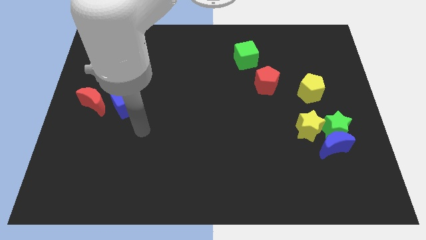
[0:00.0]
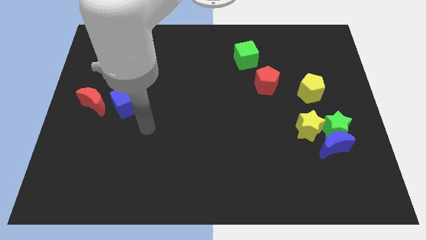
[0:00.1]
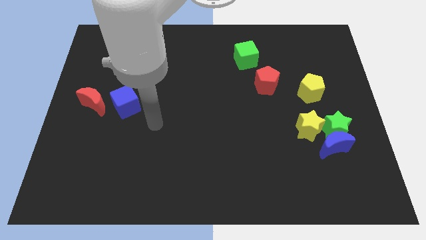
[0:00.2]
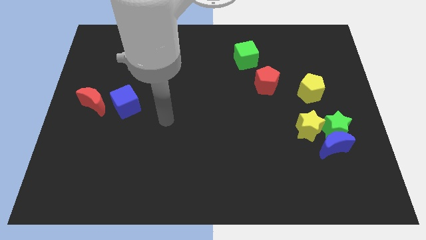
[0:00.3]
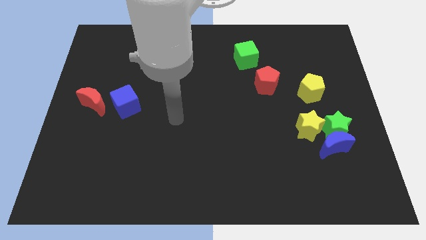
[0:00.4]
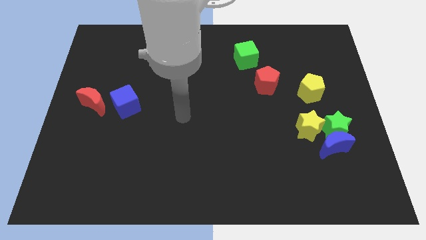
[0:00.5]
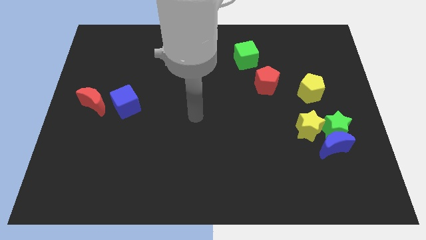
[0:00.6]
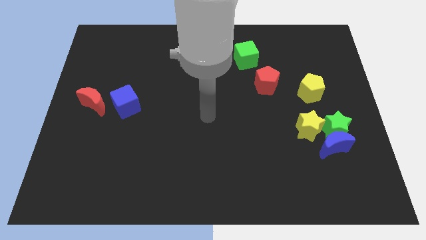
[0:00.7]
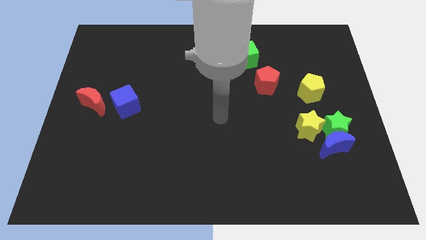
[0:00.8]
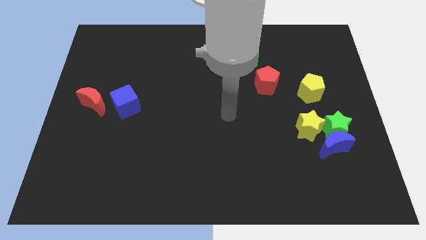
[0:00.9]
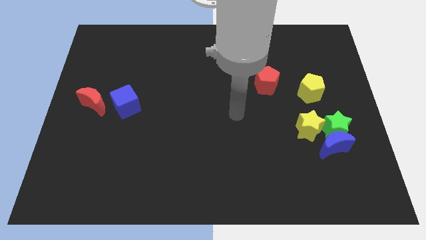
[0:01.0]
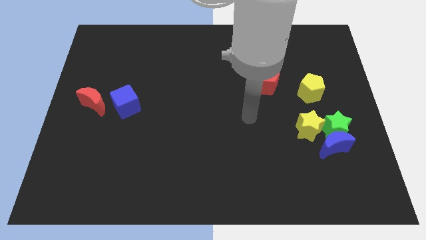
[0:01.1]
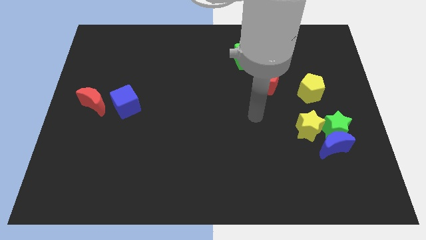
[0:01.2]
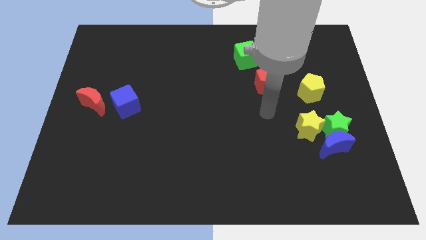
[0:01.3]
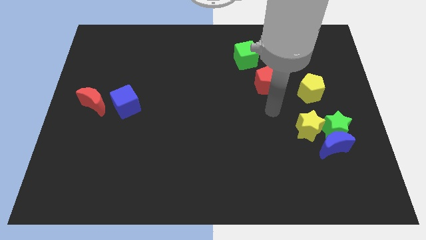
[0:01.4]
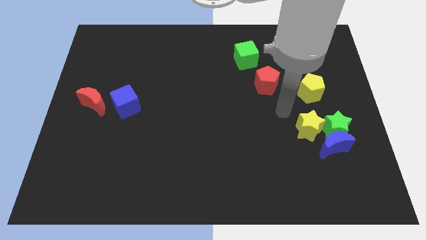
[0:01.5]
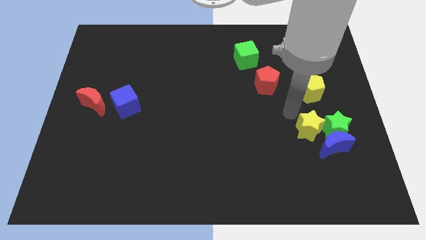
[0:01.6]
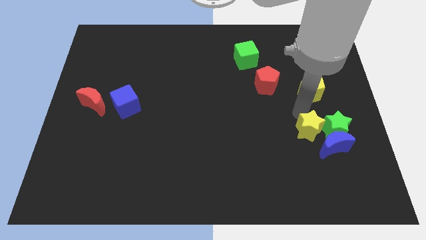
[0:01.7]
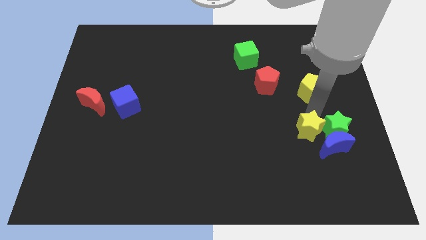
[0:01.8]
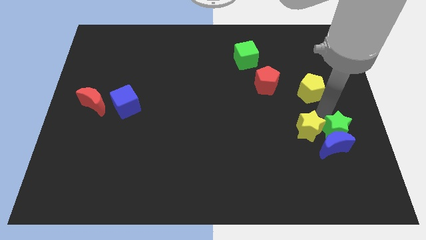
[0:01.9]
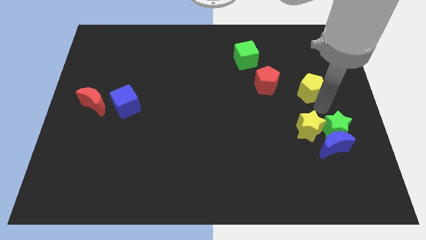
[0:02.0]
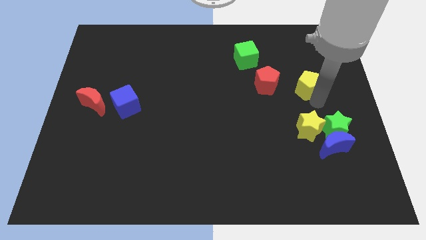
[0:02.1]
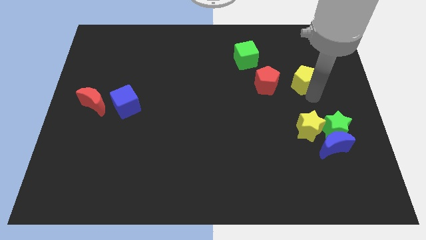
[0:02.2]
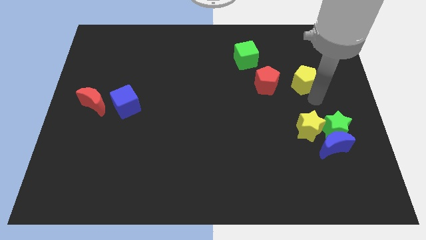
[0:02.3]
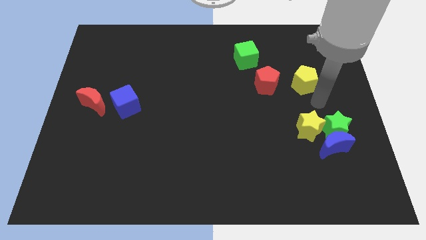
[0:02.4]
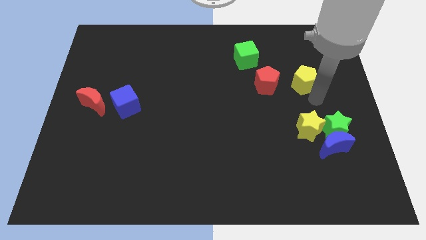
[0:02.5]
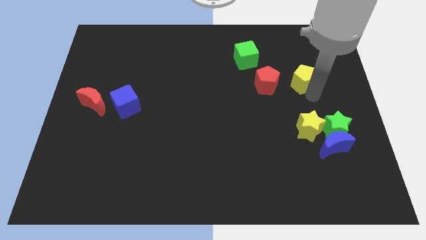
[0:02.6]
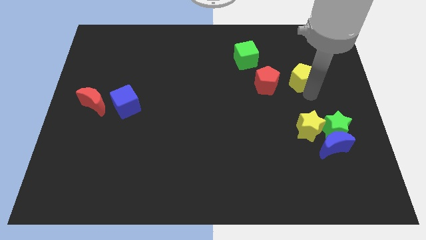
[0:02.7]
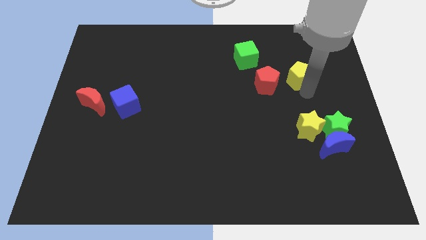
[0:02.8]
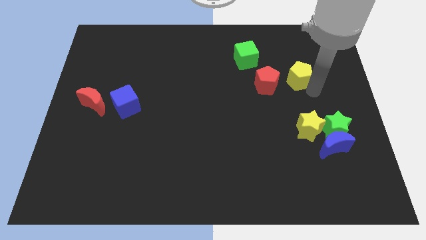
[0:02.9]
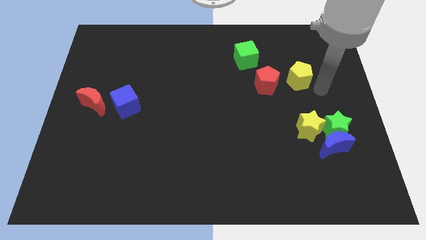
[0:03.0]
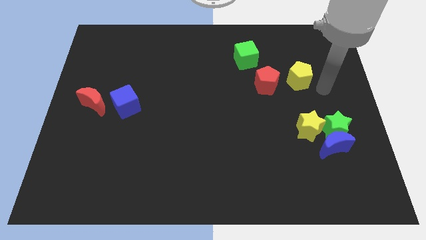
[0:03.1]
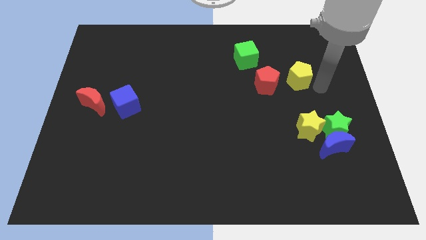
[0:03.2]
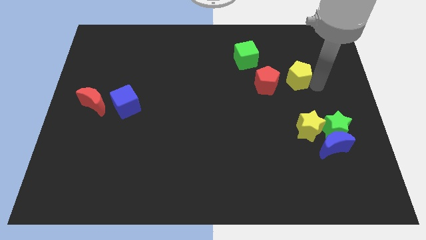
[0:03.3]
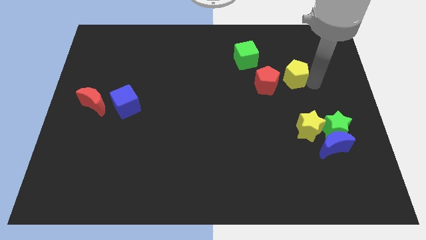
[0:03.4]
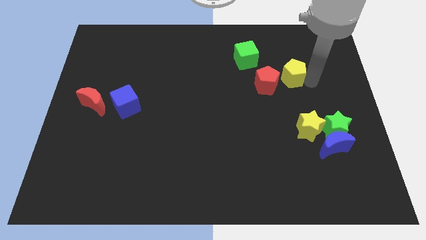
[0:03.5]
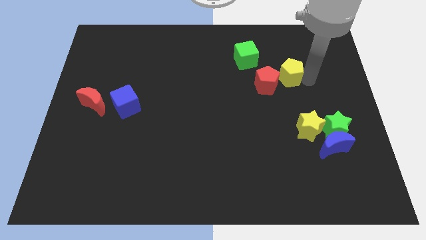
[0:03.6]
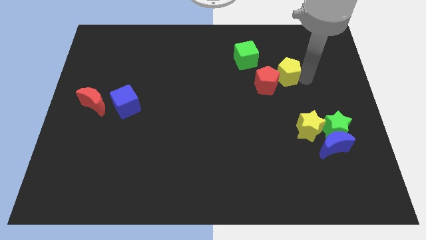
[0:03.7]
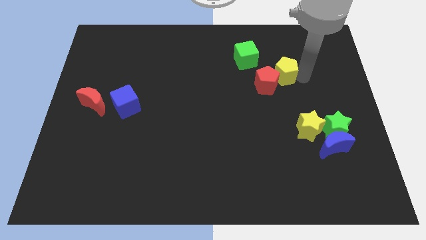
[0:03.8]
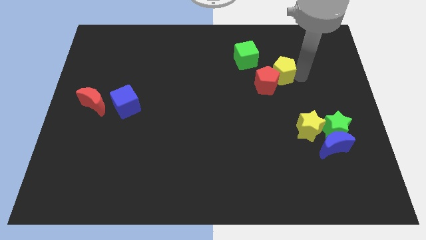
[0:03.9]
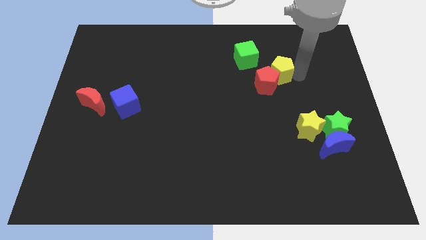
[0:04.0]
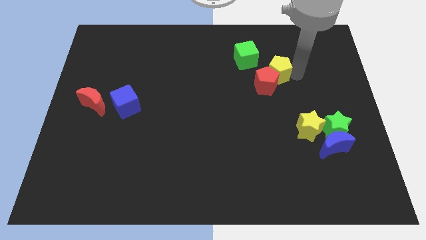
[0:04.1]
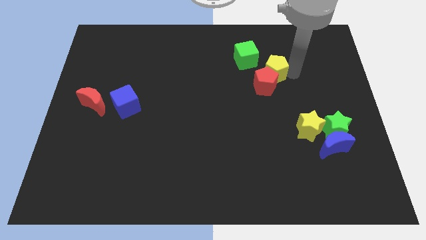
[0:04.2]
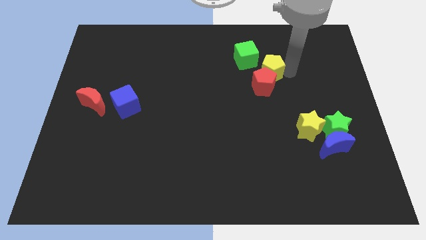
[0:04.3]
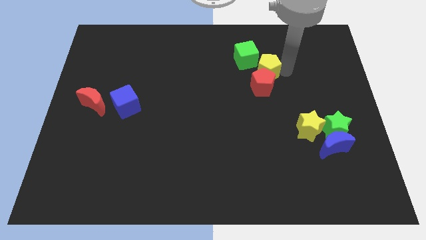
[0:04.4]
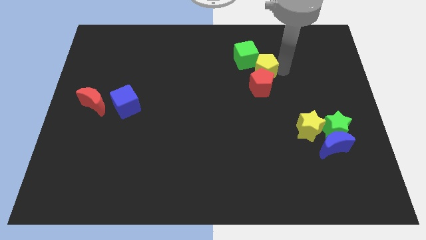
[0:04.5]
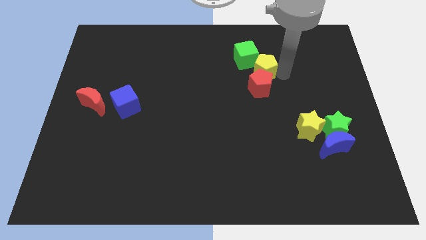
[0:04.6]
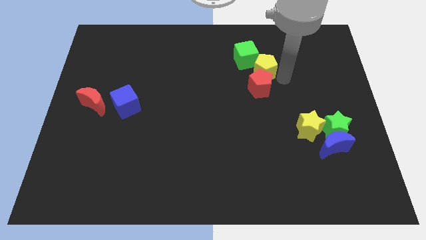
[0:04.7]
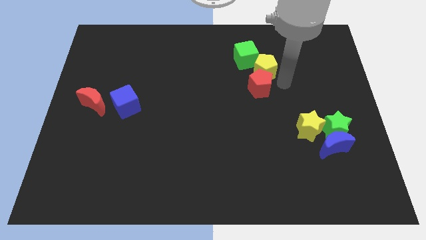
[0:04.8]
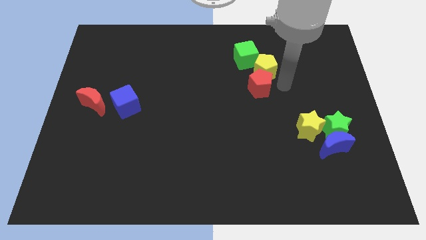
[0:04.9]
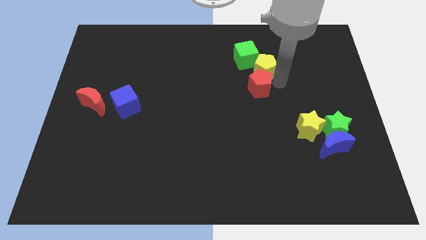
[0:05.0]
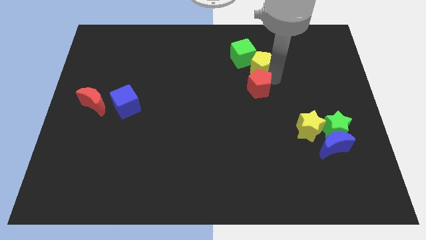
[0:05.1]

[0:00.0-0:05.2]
put the yellow pentagon next to the green cube

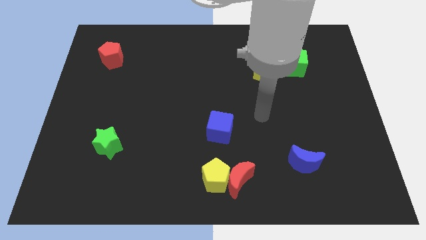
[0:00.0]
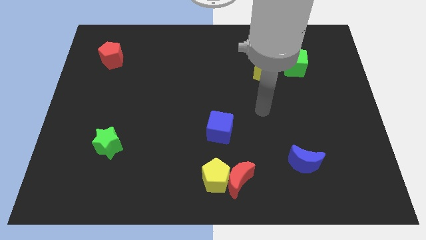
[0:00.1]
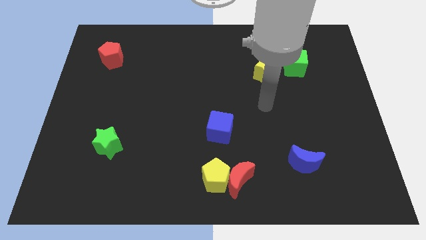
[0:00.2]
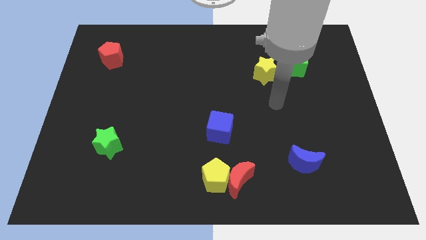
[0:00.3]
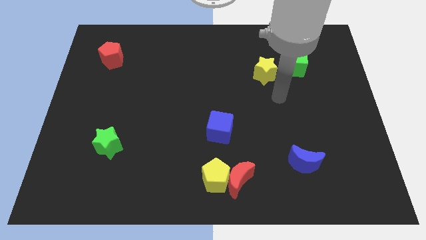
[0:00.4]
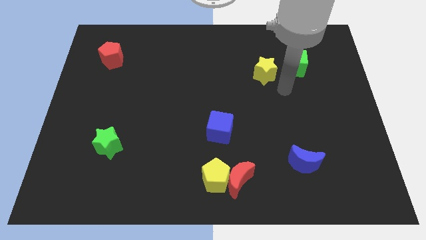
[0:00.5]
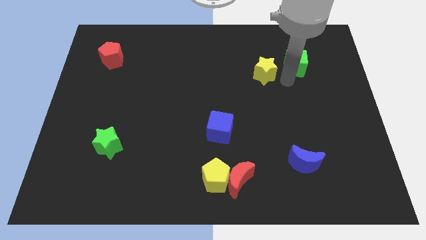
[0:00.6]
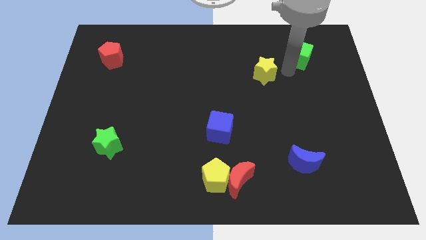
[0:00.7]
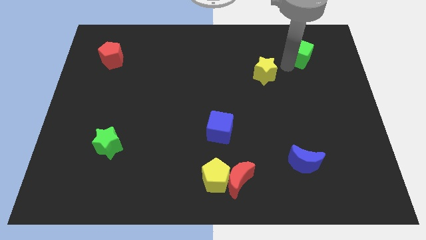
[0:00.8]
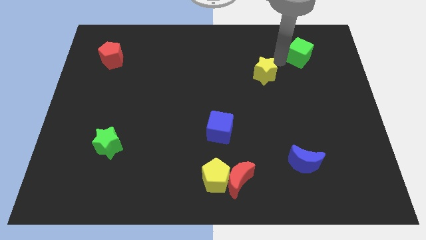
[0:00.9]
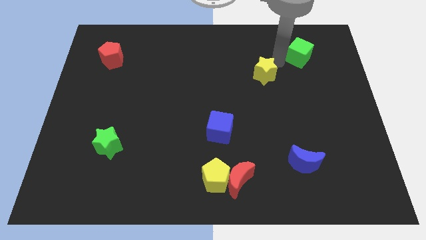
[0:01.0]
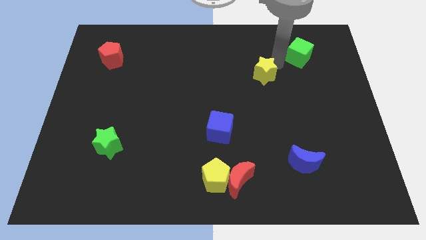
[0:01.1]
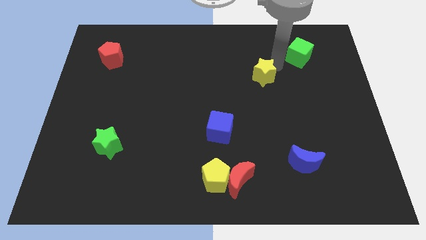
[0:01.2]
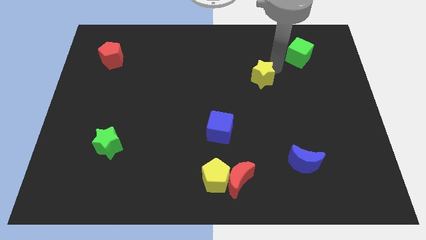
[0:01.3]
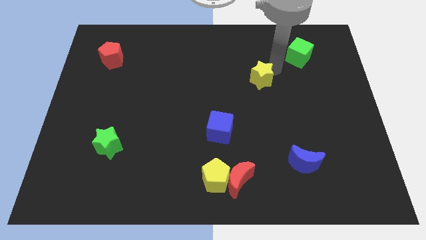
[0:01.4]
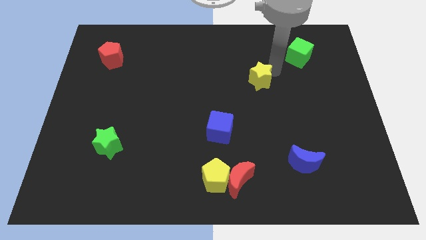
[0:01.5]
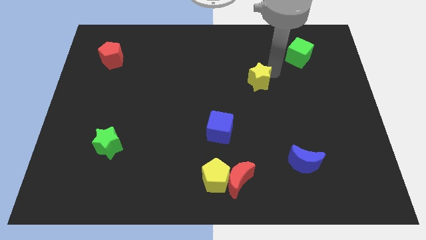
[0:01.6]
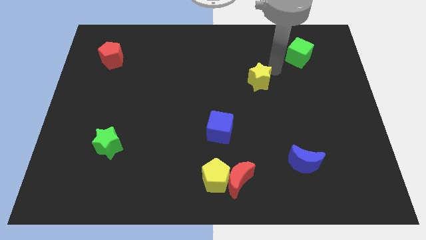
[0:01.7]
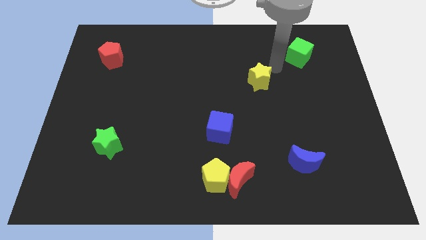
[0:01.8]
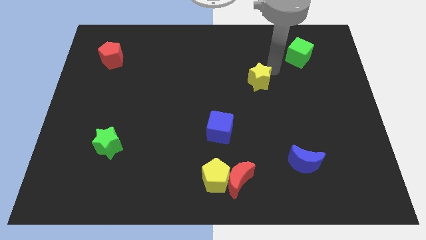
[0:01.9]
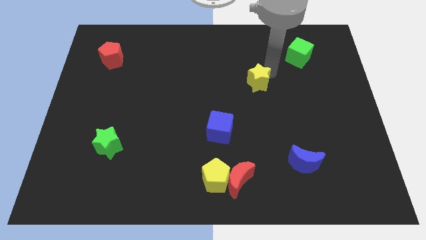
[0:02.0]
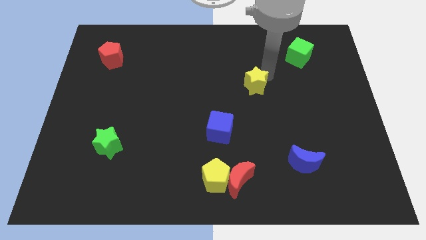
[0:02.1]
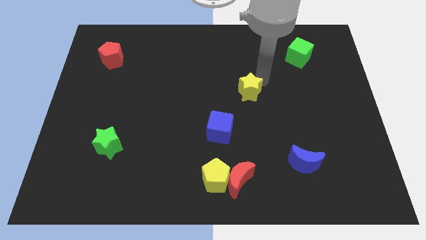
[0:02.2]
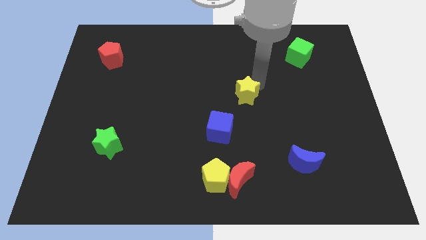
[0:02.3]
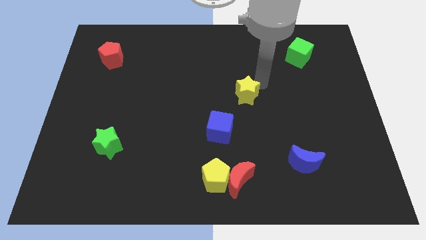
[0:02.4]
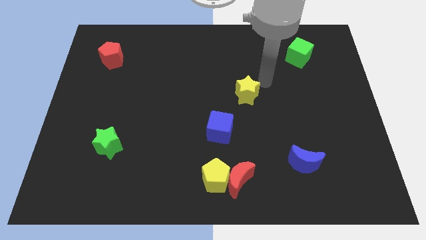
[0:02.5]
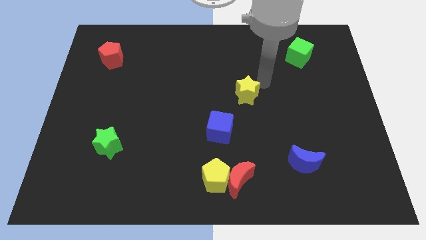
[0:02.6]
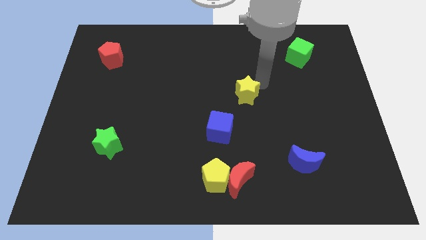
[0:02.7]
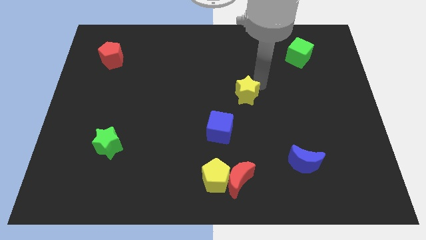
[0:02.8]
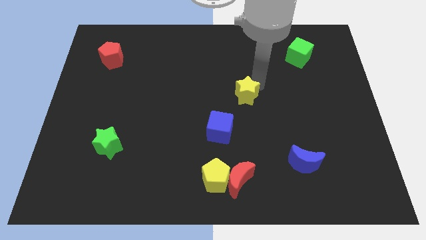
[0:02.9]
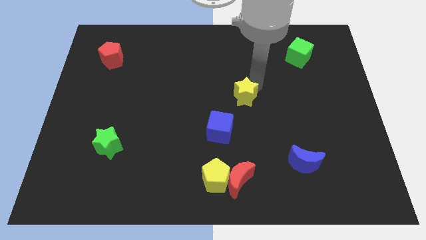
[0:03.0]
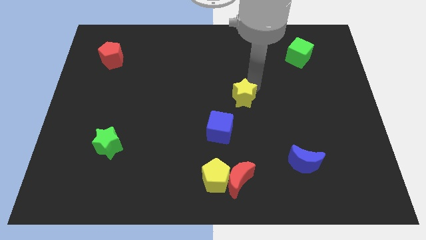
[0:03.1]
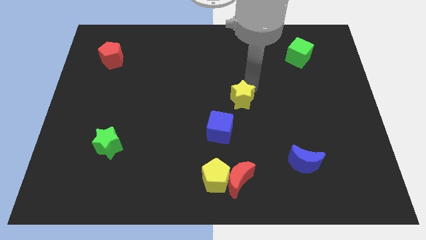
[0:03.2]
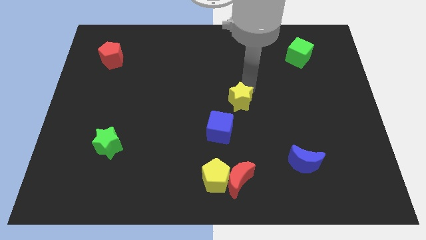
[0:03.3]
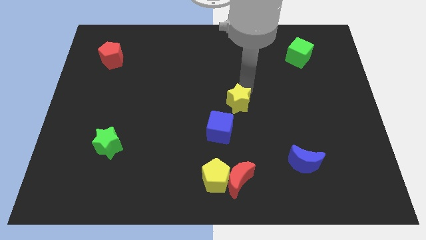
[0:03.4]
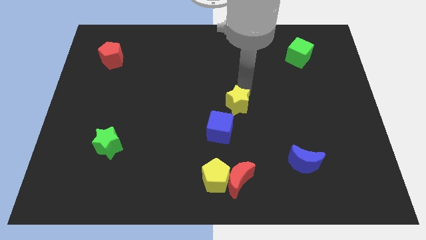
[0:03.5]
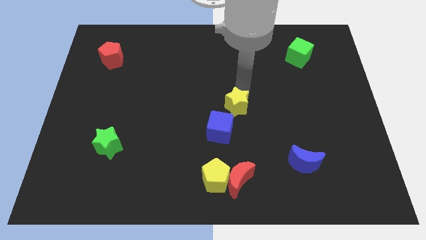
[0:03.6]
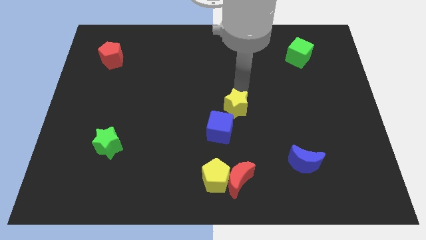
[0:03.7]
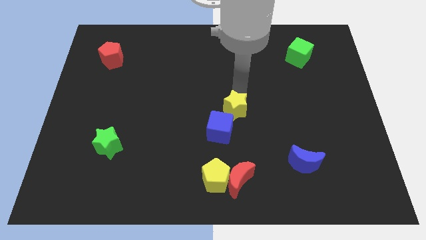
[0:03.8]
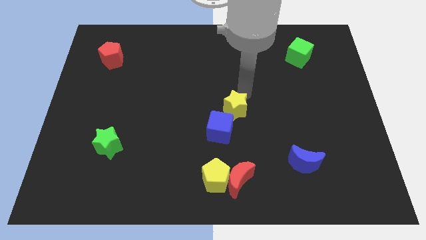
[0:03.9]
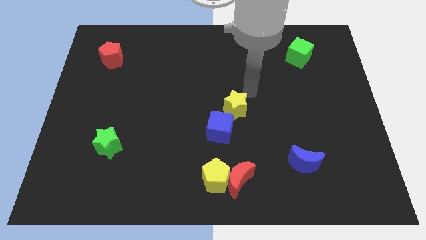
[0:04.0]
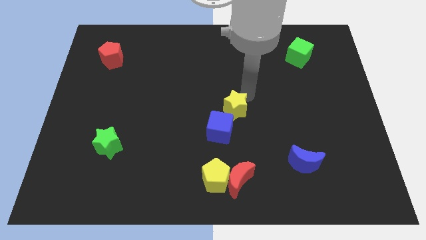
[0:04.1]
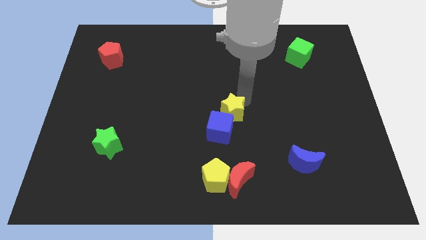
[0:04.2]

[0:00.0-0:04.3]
put the yellow star towards the blue cube
